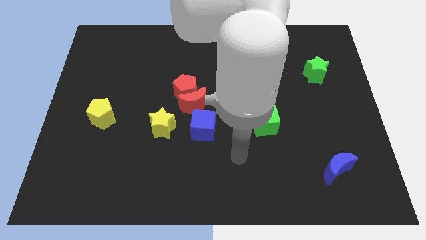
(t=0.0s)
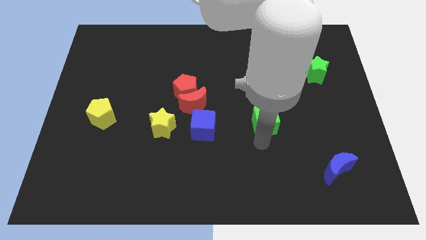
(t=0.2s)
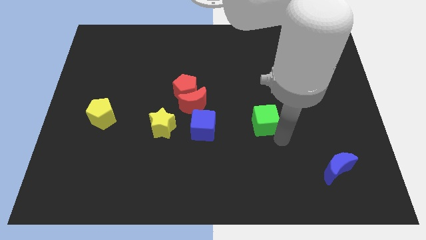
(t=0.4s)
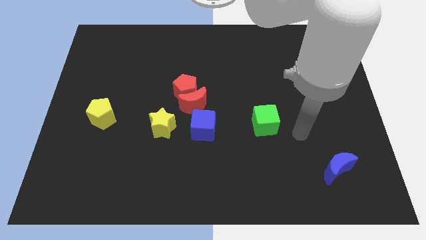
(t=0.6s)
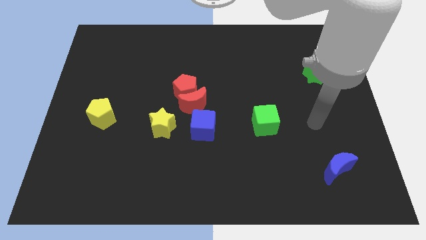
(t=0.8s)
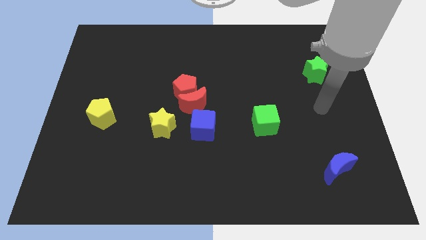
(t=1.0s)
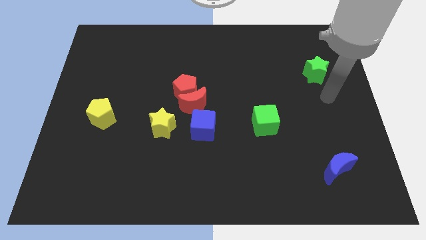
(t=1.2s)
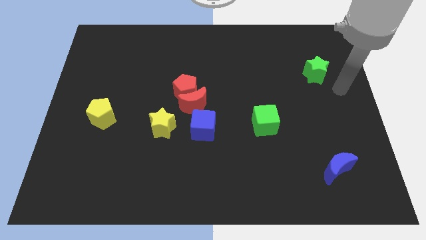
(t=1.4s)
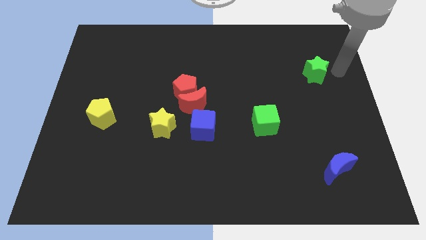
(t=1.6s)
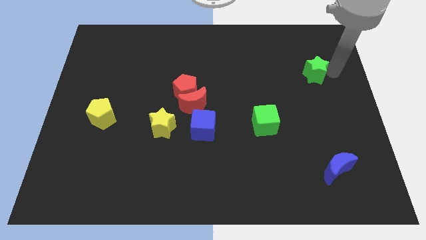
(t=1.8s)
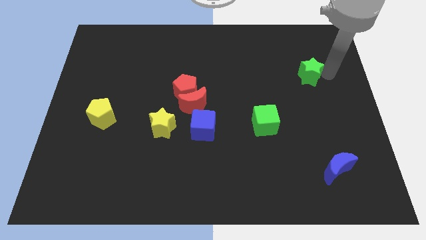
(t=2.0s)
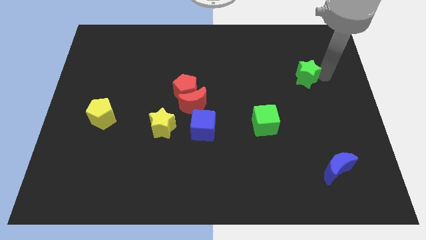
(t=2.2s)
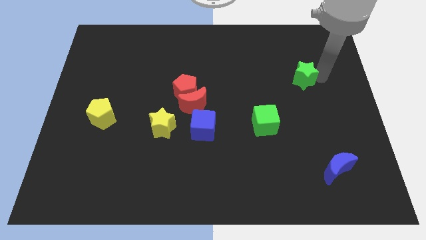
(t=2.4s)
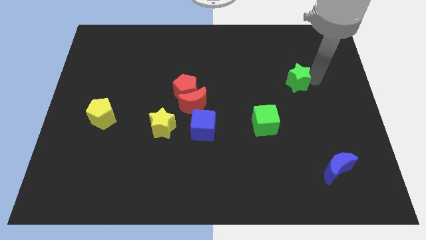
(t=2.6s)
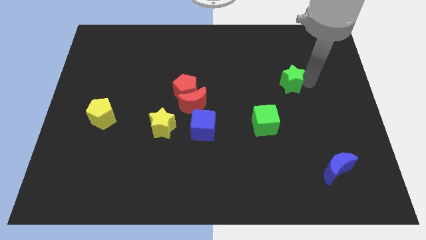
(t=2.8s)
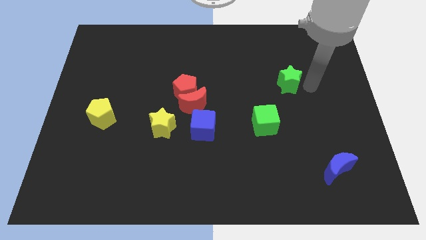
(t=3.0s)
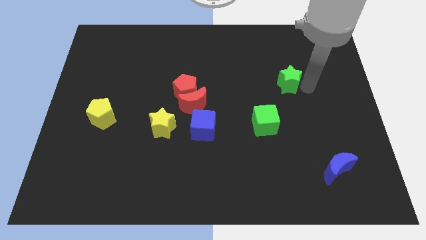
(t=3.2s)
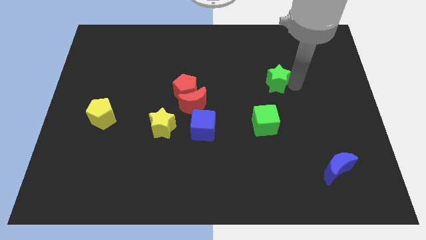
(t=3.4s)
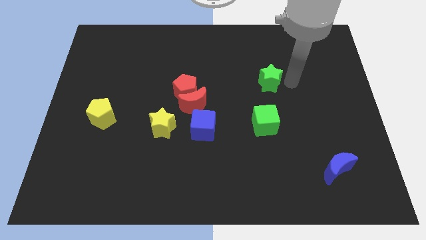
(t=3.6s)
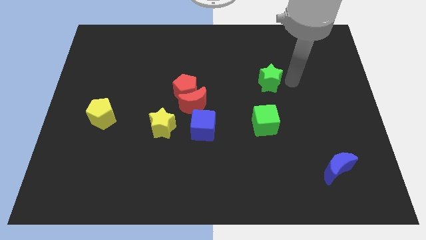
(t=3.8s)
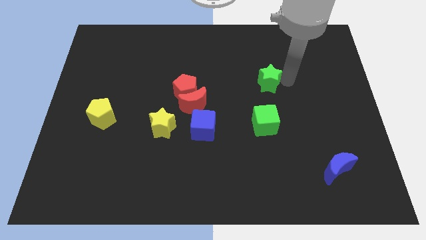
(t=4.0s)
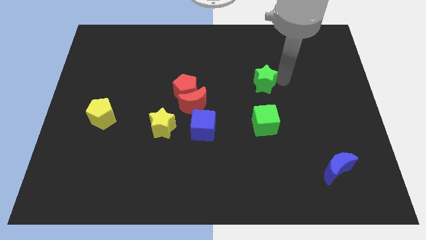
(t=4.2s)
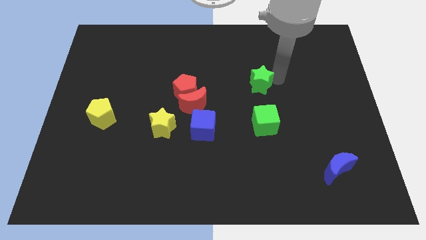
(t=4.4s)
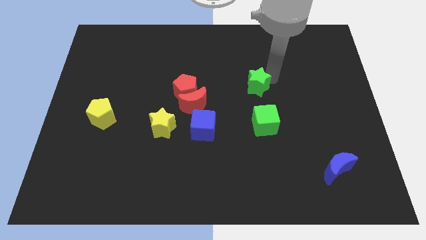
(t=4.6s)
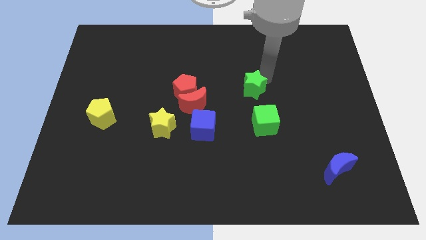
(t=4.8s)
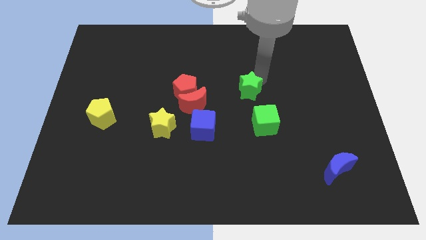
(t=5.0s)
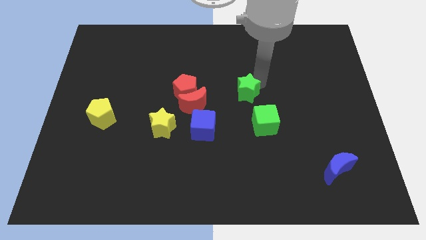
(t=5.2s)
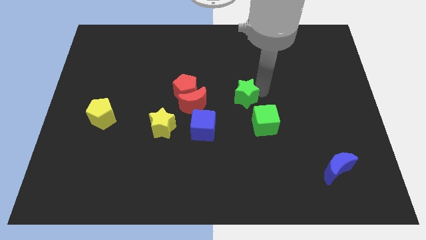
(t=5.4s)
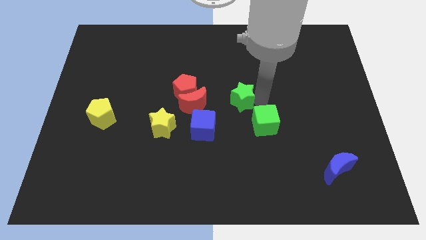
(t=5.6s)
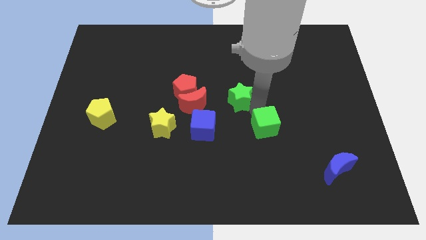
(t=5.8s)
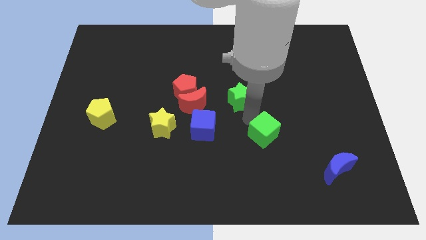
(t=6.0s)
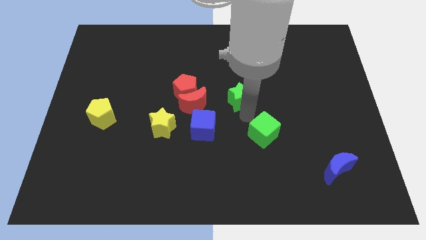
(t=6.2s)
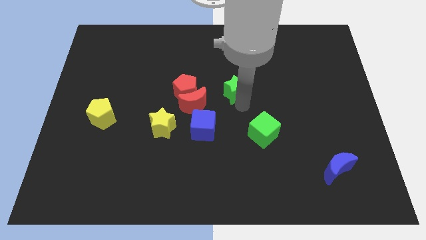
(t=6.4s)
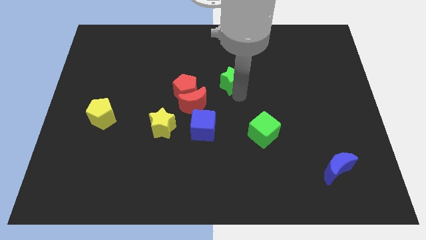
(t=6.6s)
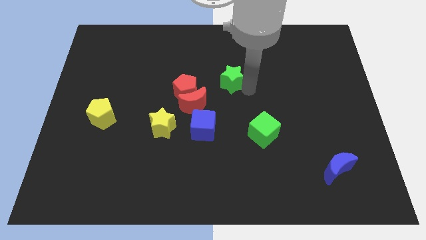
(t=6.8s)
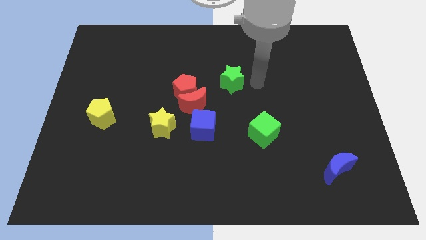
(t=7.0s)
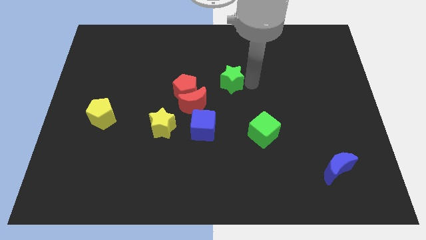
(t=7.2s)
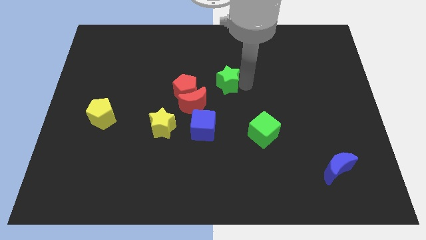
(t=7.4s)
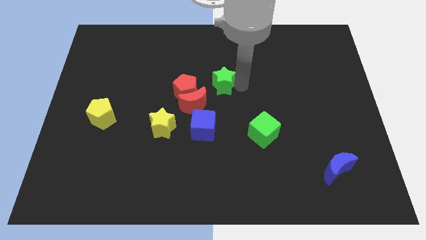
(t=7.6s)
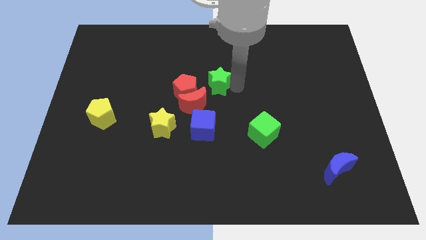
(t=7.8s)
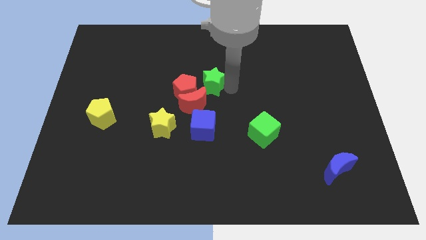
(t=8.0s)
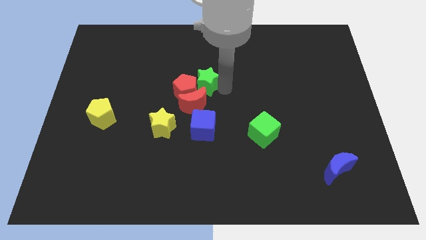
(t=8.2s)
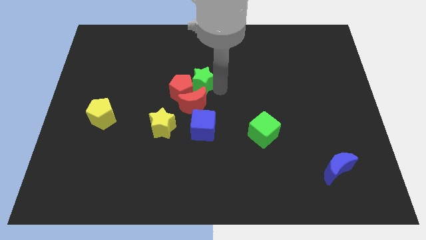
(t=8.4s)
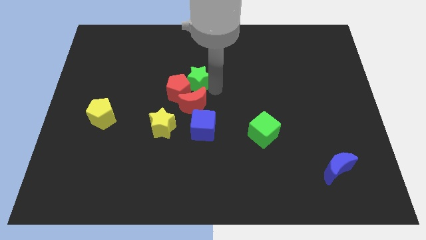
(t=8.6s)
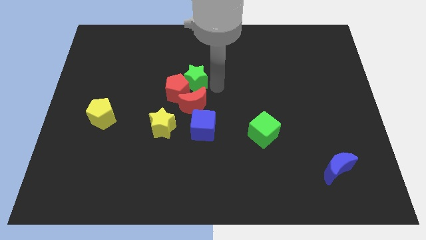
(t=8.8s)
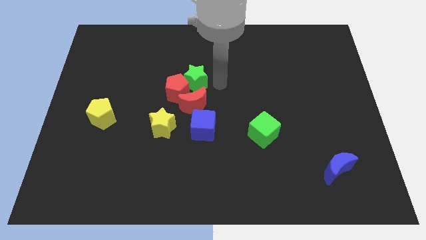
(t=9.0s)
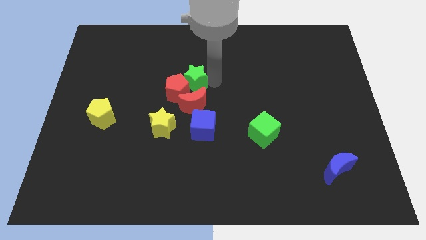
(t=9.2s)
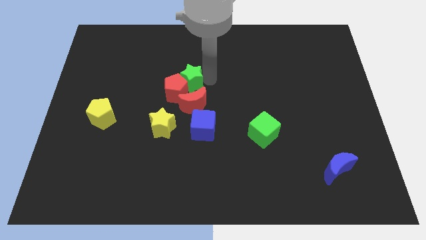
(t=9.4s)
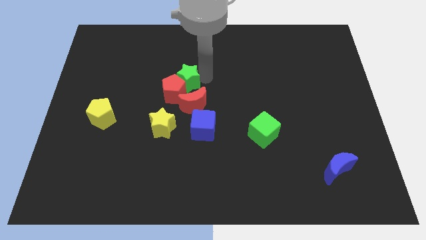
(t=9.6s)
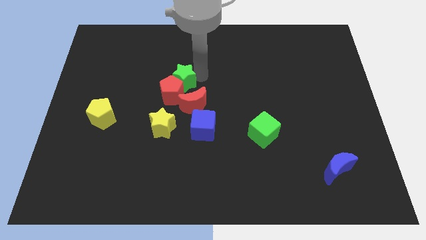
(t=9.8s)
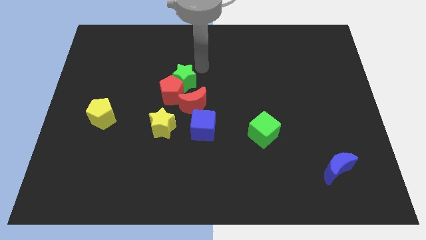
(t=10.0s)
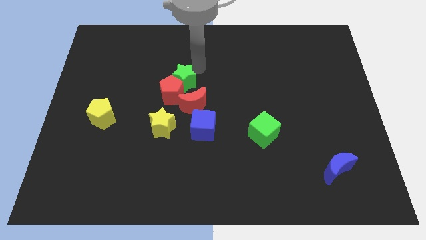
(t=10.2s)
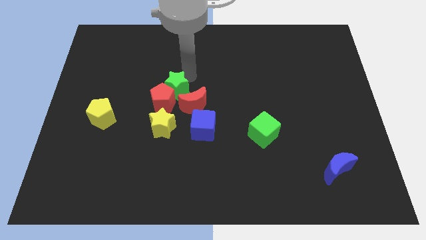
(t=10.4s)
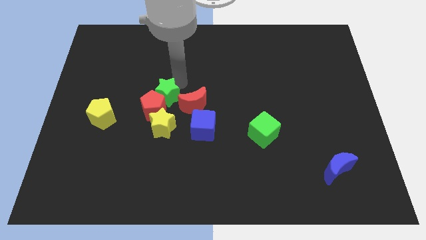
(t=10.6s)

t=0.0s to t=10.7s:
slide the green star to the top left of the blue cube

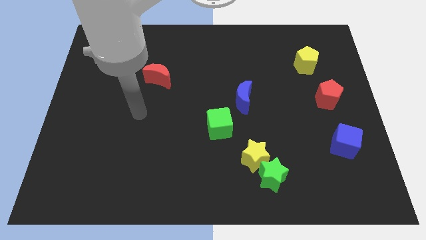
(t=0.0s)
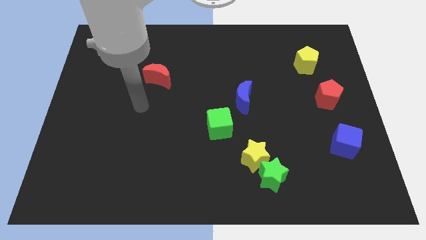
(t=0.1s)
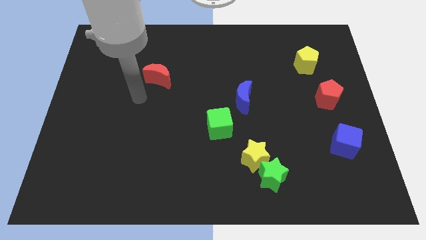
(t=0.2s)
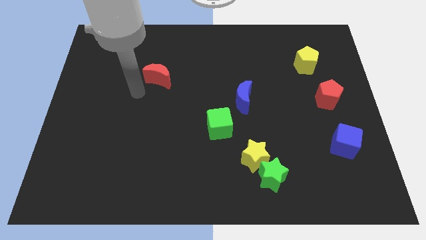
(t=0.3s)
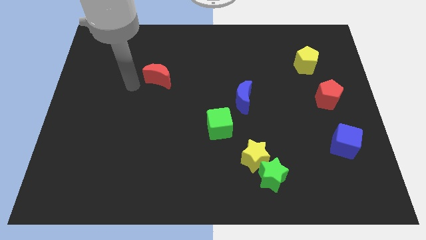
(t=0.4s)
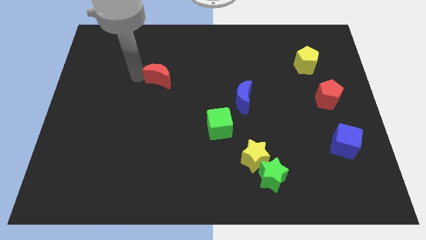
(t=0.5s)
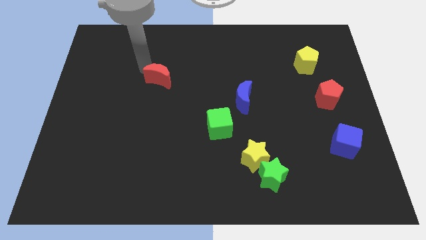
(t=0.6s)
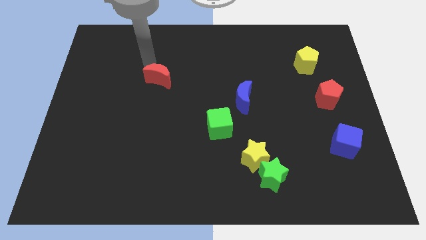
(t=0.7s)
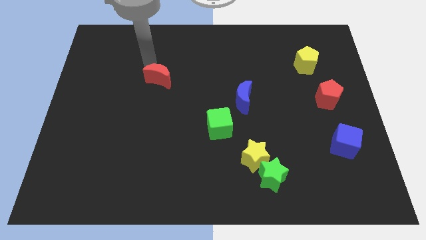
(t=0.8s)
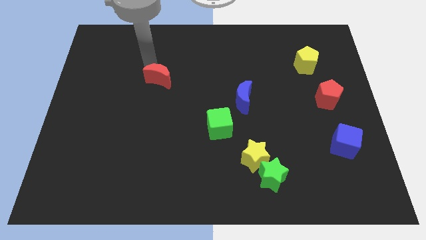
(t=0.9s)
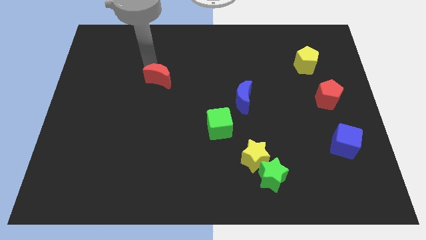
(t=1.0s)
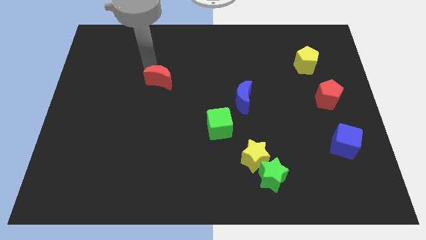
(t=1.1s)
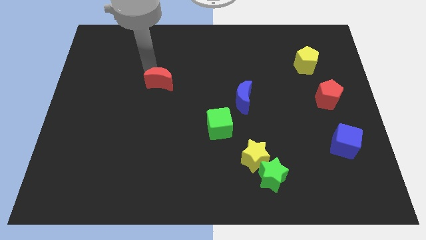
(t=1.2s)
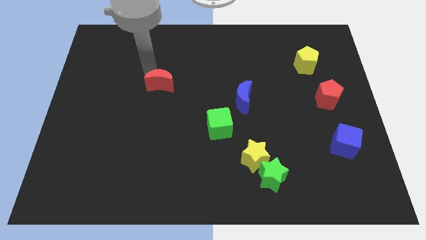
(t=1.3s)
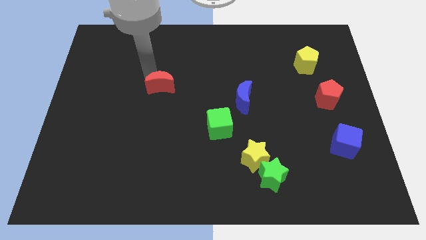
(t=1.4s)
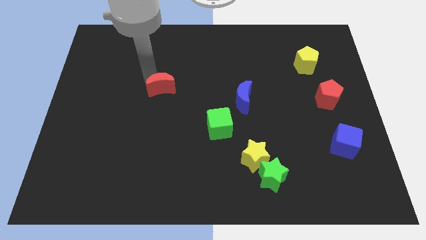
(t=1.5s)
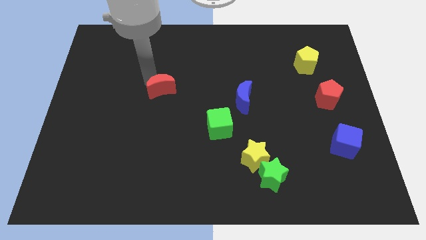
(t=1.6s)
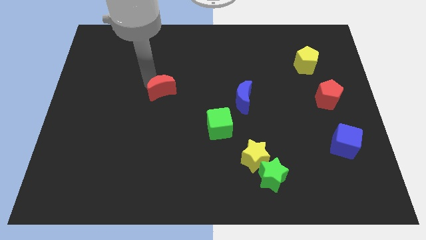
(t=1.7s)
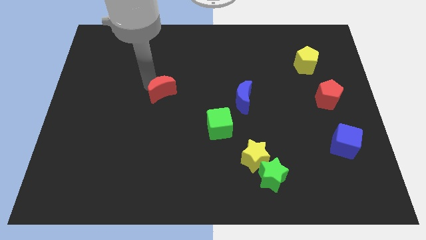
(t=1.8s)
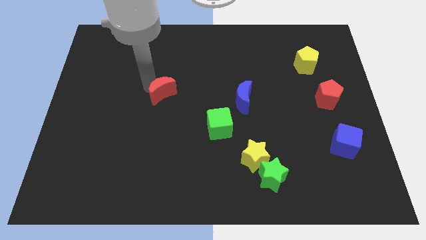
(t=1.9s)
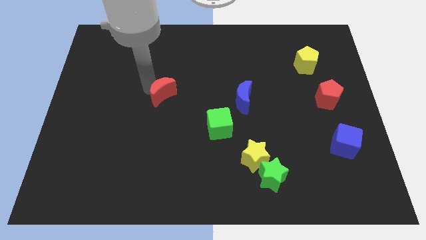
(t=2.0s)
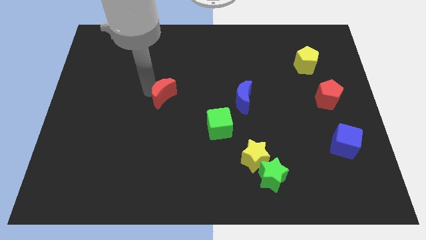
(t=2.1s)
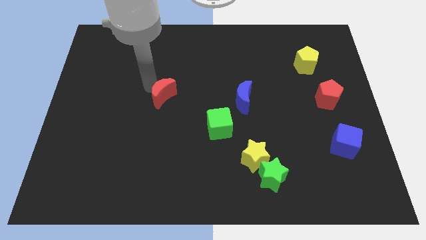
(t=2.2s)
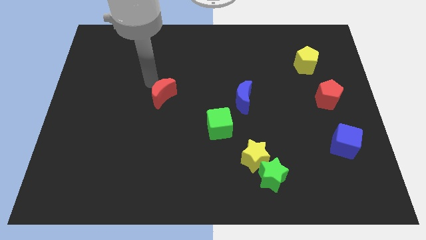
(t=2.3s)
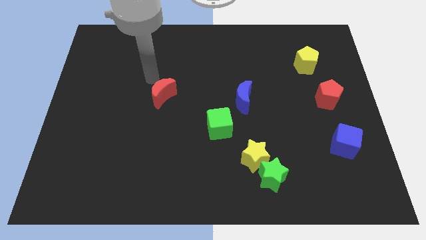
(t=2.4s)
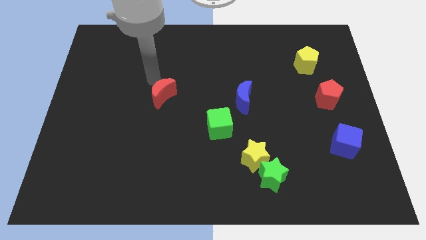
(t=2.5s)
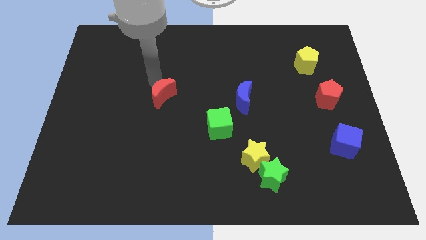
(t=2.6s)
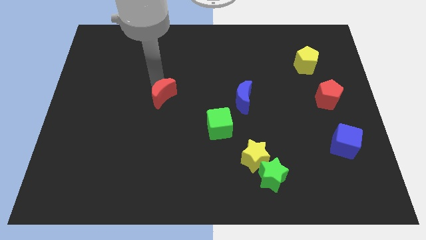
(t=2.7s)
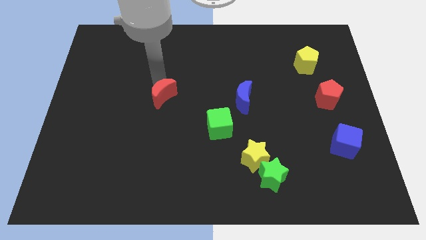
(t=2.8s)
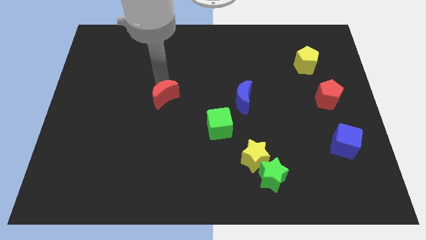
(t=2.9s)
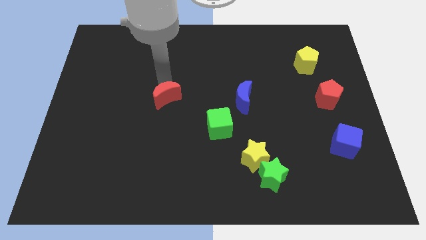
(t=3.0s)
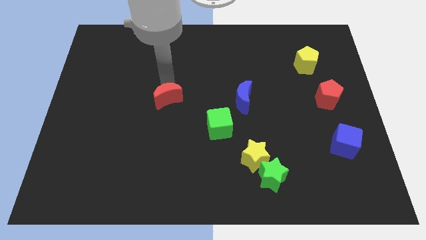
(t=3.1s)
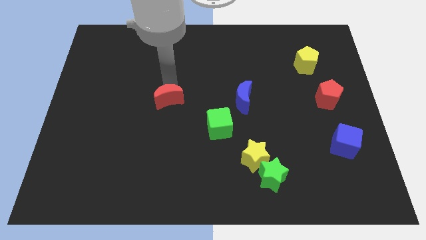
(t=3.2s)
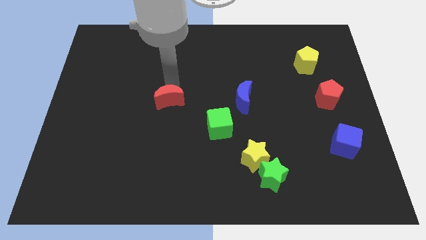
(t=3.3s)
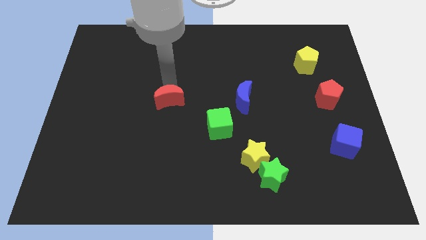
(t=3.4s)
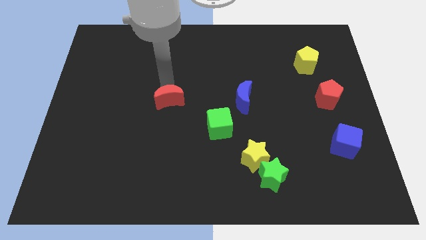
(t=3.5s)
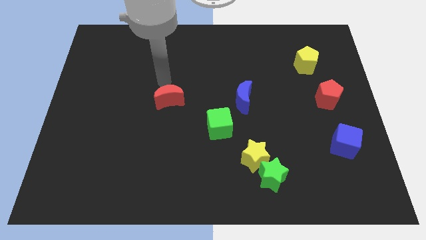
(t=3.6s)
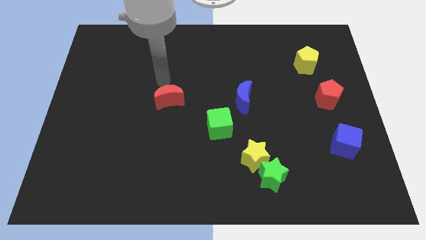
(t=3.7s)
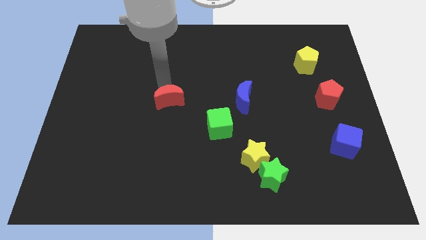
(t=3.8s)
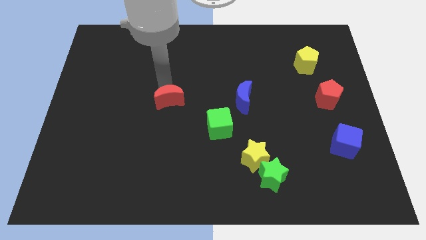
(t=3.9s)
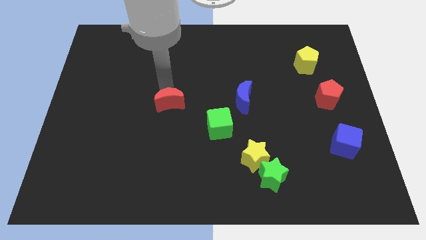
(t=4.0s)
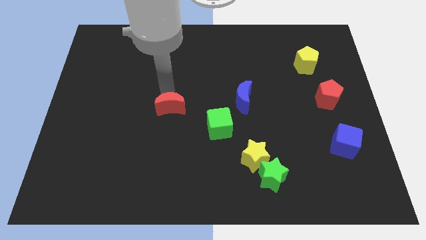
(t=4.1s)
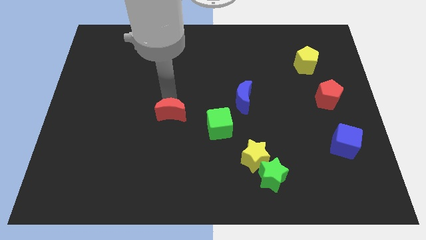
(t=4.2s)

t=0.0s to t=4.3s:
move the red moon just left of the green cube
